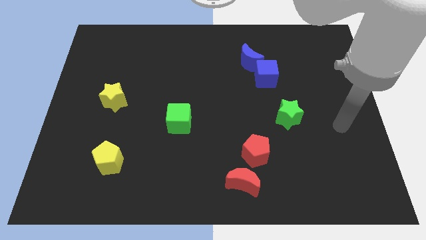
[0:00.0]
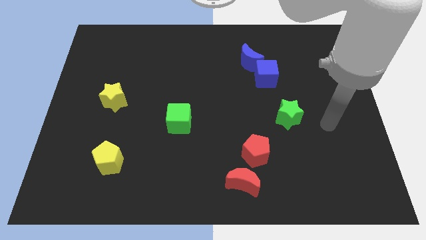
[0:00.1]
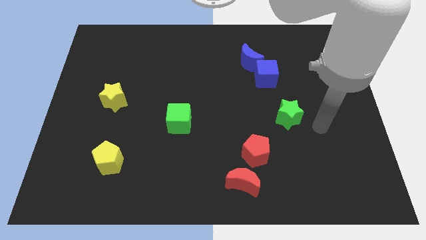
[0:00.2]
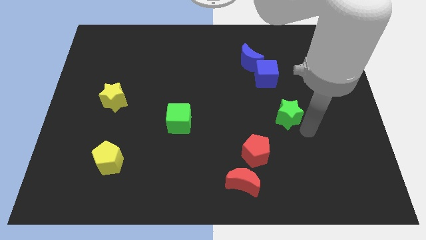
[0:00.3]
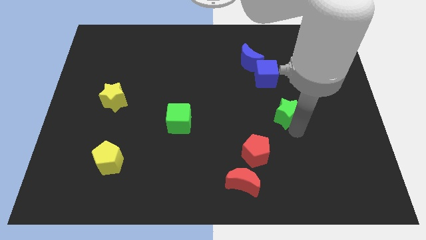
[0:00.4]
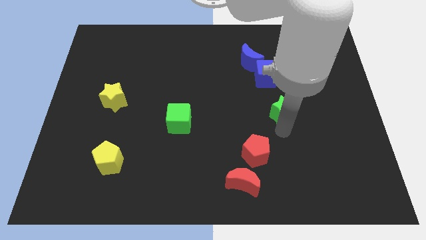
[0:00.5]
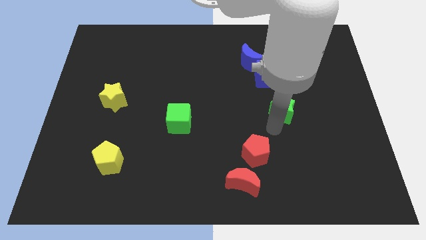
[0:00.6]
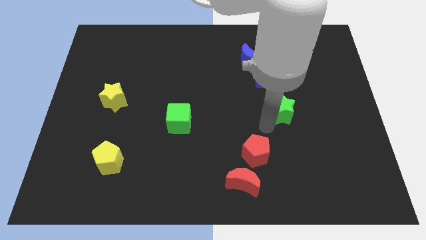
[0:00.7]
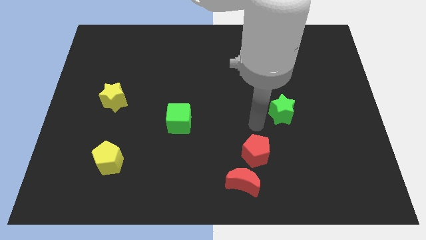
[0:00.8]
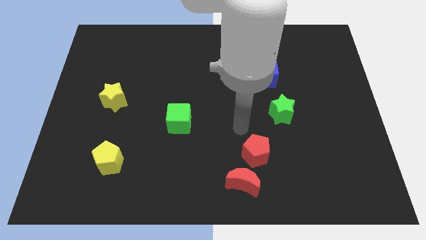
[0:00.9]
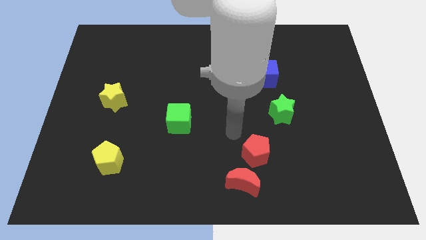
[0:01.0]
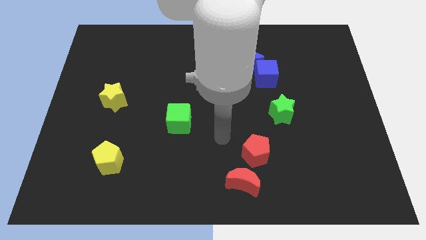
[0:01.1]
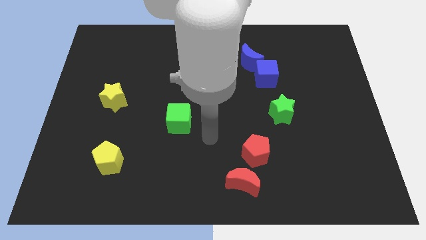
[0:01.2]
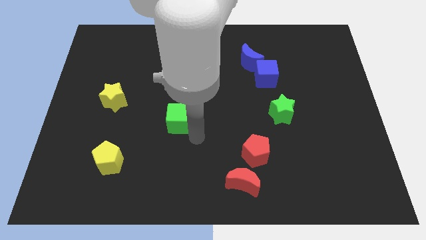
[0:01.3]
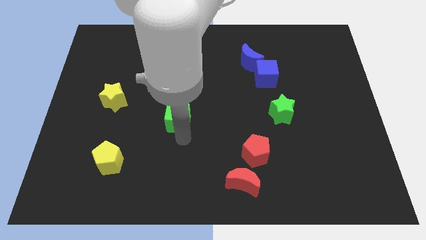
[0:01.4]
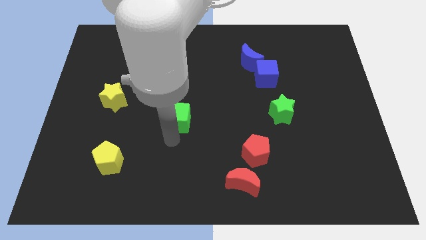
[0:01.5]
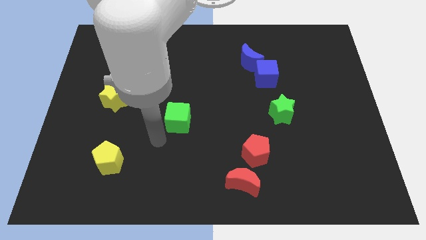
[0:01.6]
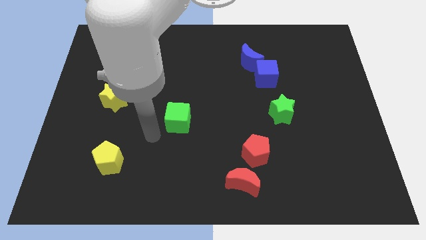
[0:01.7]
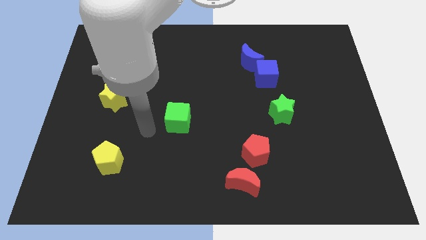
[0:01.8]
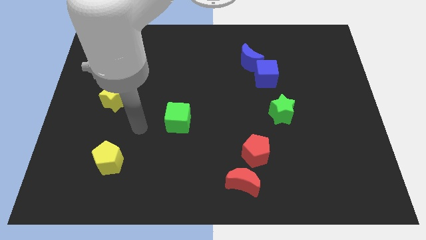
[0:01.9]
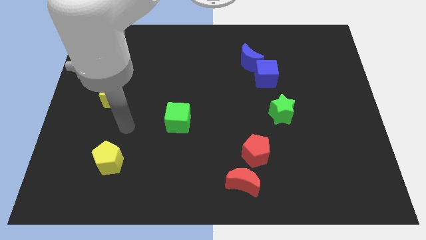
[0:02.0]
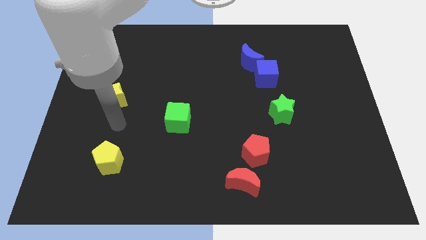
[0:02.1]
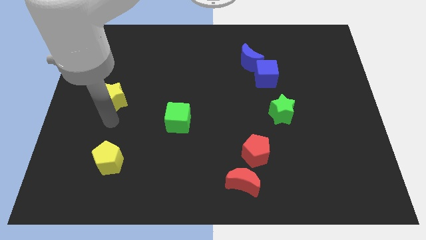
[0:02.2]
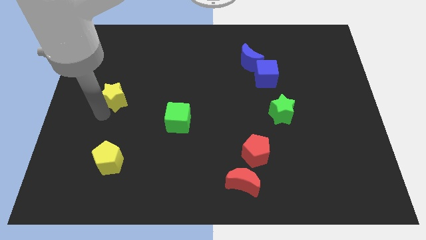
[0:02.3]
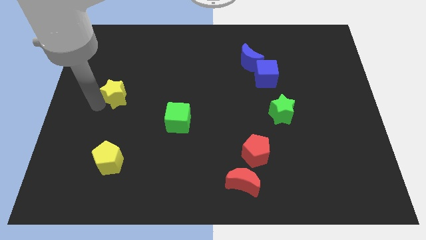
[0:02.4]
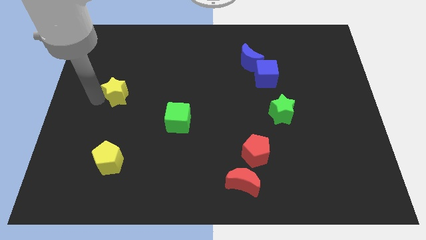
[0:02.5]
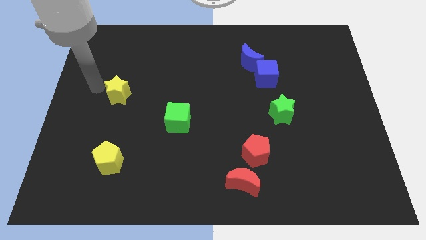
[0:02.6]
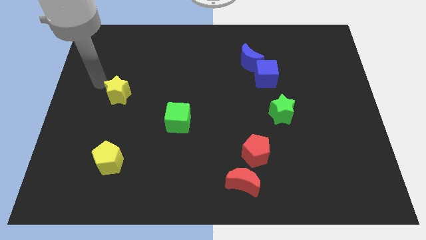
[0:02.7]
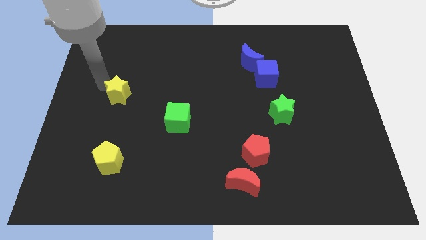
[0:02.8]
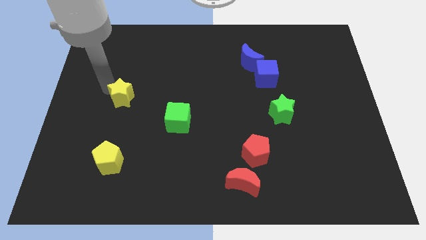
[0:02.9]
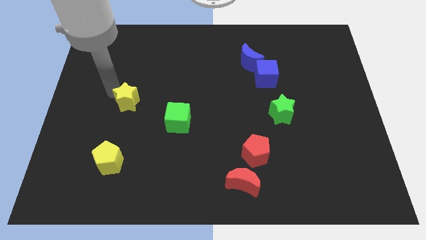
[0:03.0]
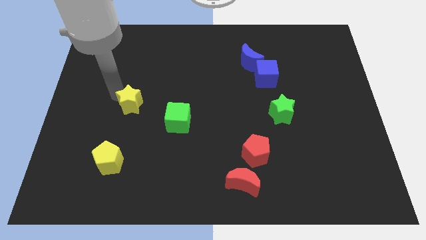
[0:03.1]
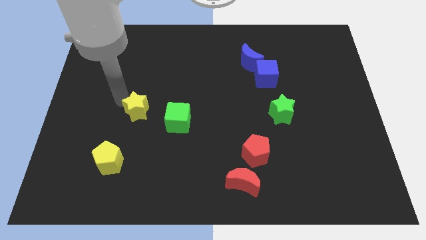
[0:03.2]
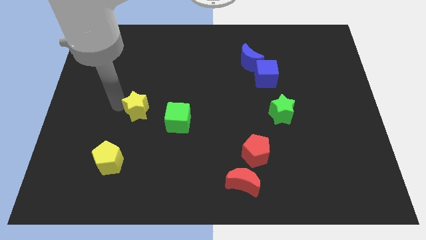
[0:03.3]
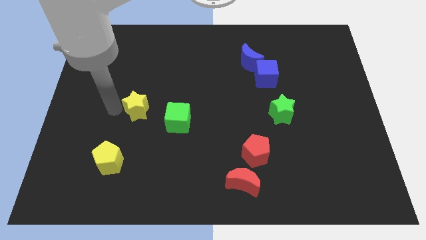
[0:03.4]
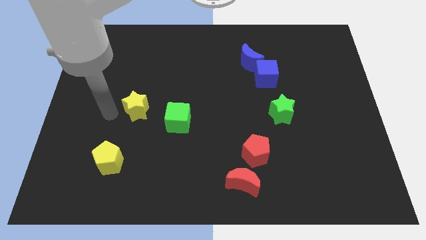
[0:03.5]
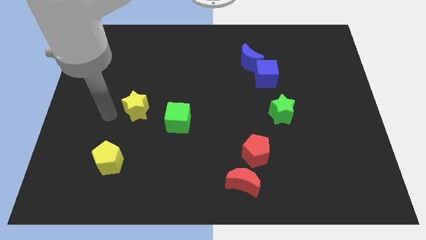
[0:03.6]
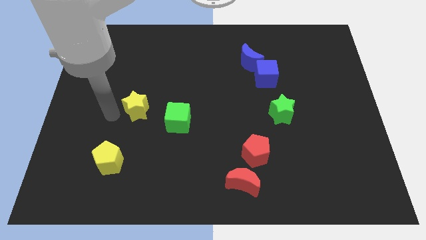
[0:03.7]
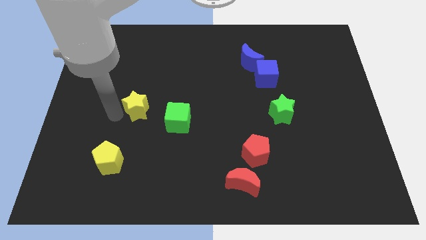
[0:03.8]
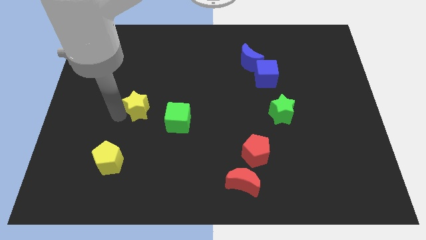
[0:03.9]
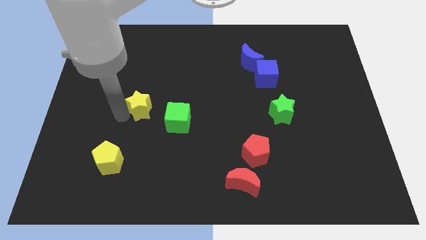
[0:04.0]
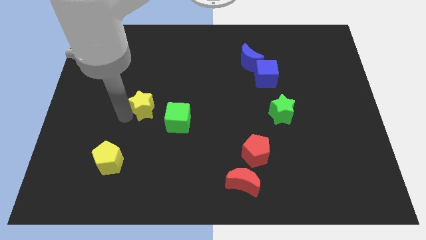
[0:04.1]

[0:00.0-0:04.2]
slightly push the yellow star to the right

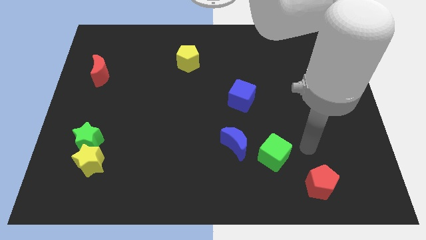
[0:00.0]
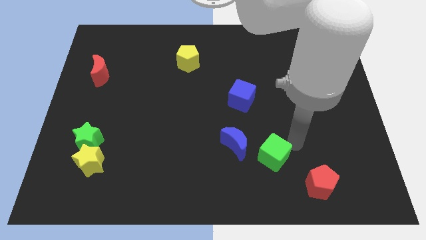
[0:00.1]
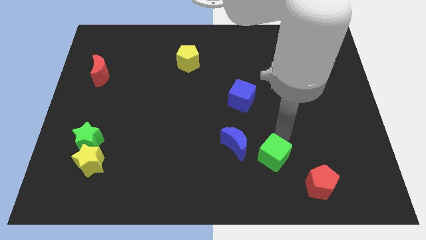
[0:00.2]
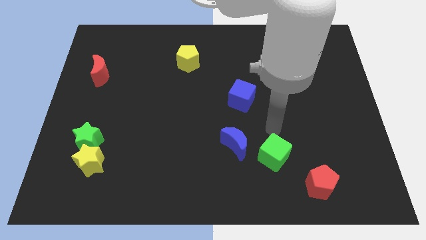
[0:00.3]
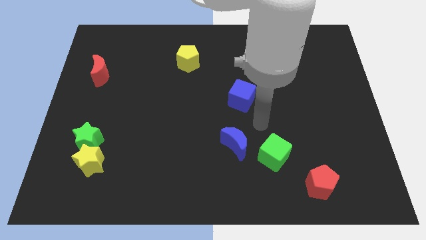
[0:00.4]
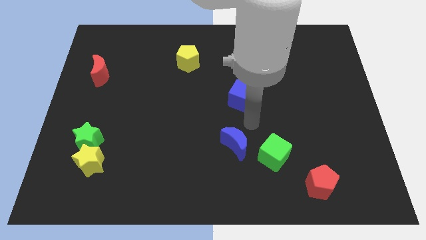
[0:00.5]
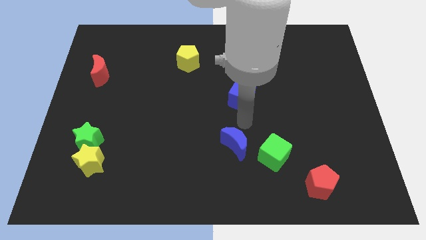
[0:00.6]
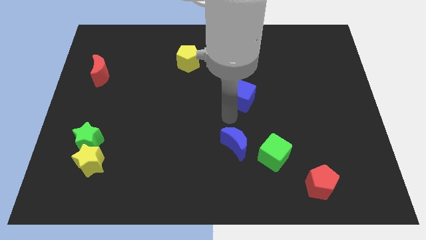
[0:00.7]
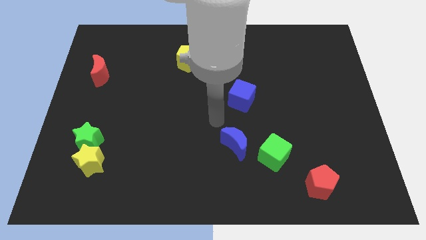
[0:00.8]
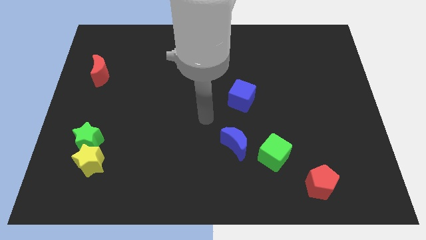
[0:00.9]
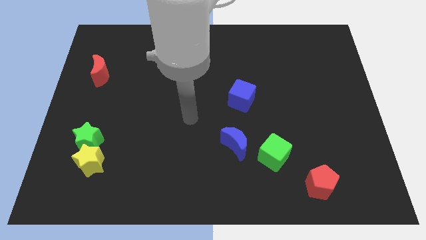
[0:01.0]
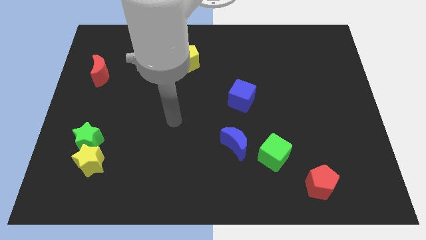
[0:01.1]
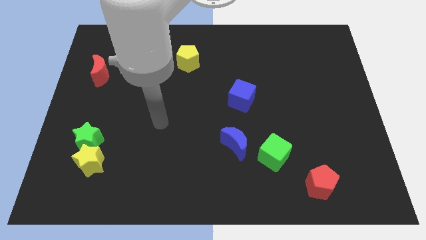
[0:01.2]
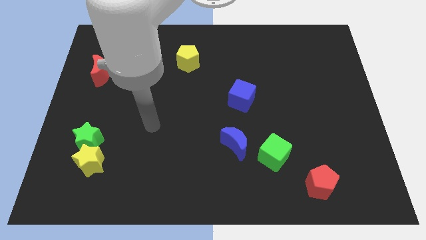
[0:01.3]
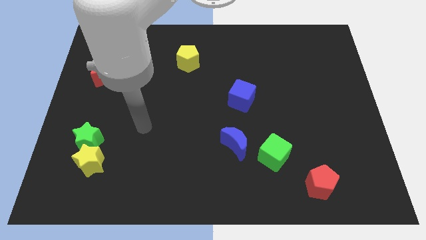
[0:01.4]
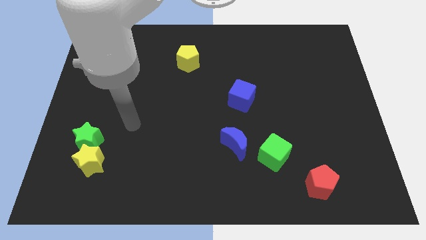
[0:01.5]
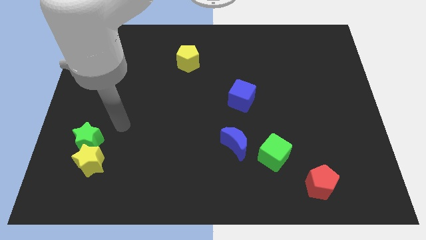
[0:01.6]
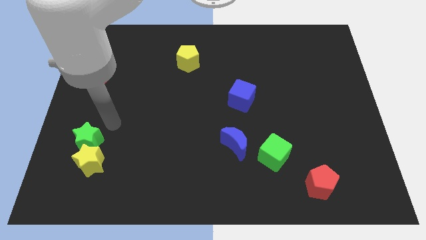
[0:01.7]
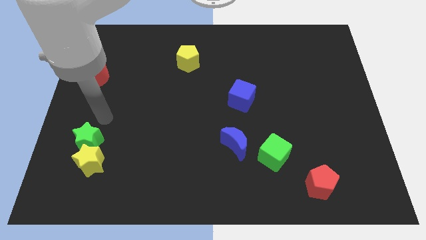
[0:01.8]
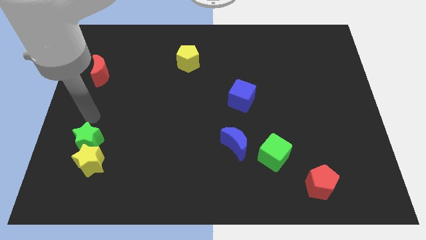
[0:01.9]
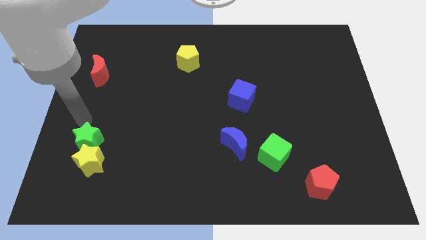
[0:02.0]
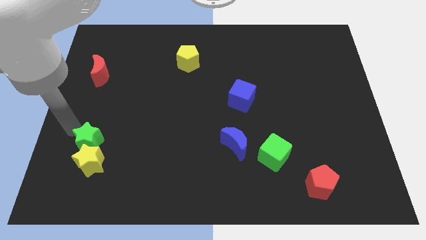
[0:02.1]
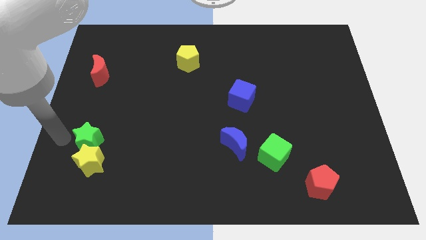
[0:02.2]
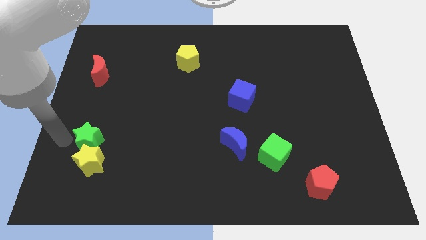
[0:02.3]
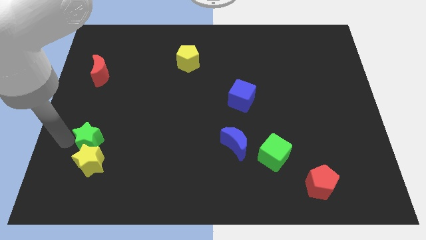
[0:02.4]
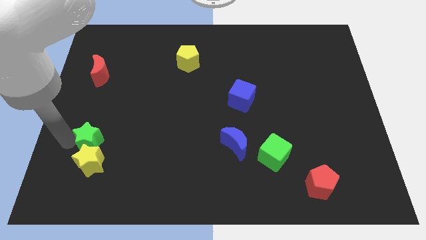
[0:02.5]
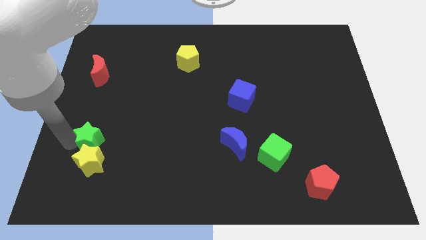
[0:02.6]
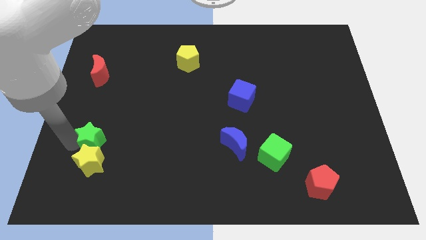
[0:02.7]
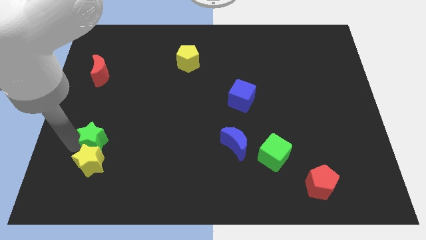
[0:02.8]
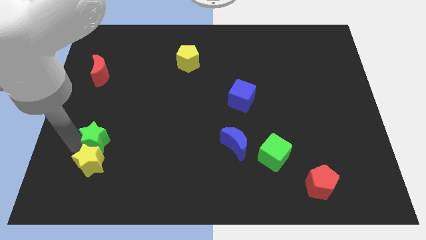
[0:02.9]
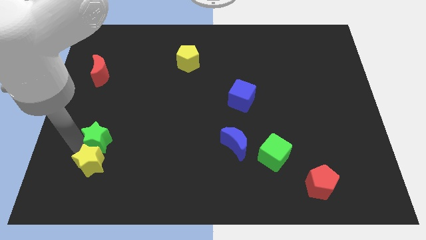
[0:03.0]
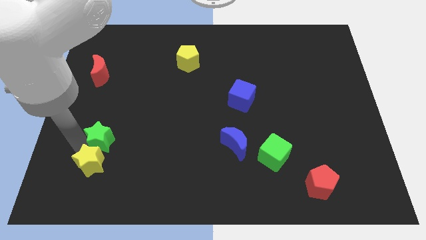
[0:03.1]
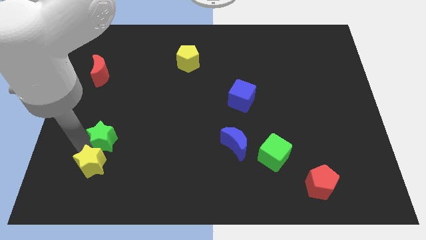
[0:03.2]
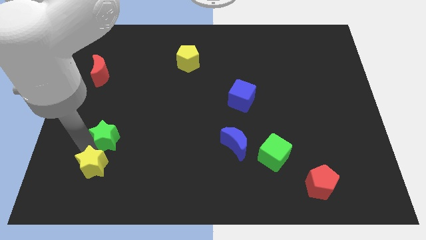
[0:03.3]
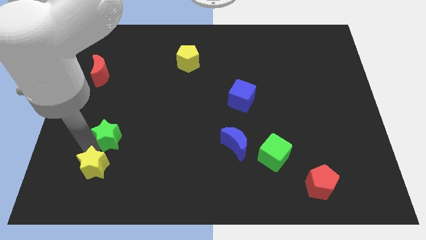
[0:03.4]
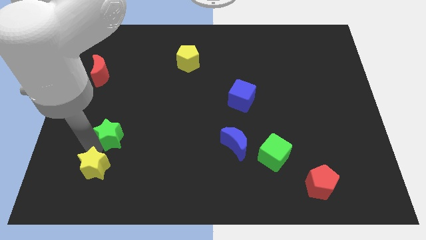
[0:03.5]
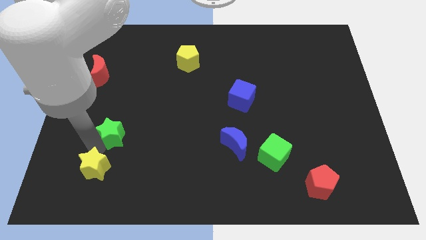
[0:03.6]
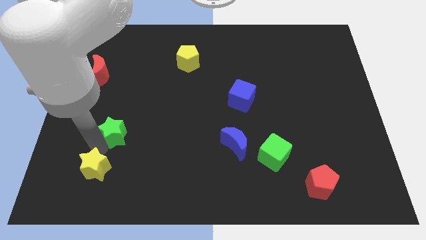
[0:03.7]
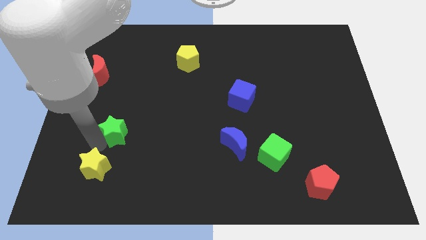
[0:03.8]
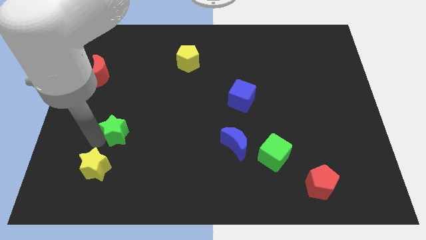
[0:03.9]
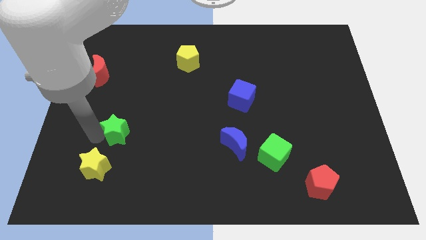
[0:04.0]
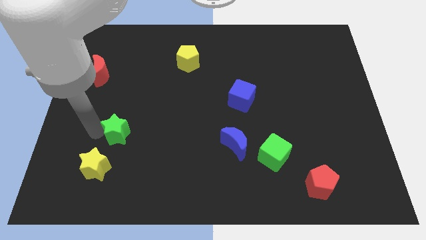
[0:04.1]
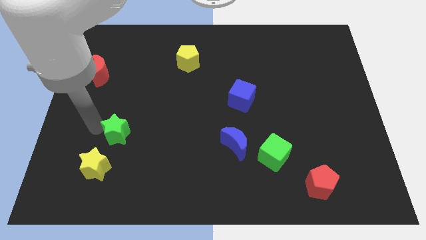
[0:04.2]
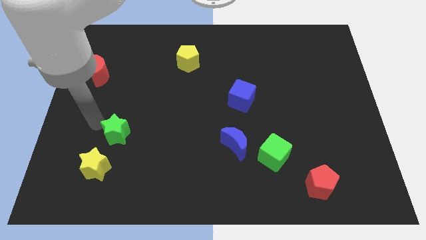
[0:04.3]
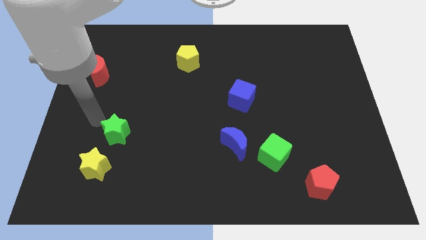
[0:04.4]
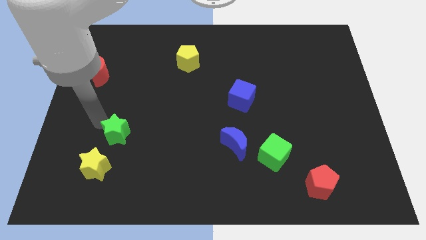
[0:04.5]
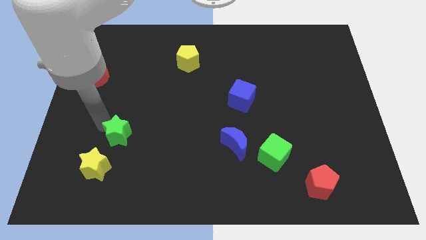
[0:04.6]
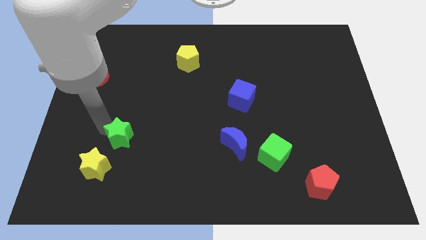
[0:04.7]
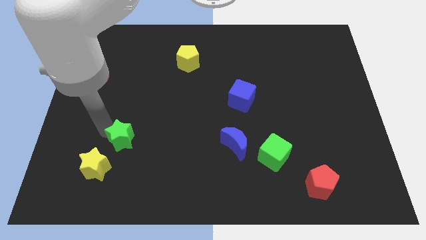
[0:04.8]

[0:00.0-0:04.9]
move the green star right slightly
